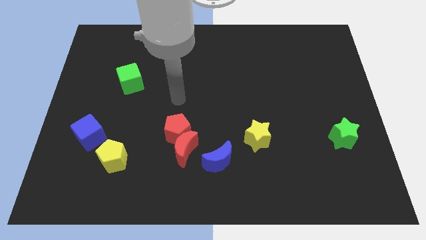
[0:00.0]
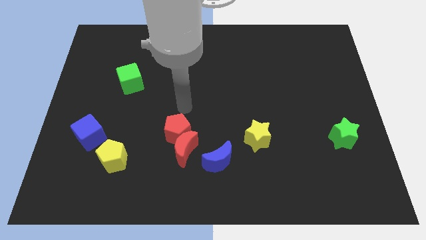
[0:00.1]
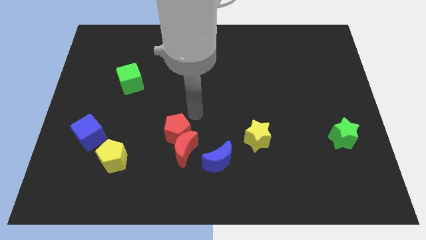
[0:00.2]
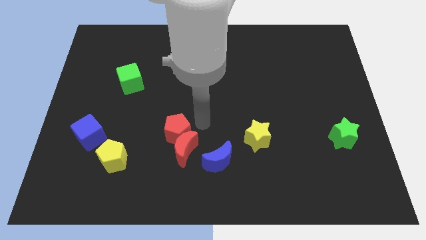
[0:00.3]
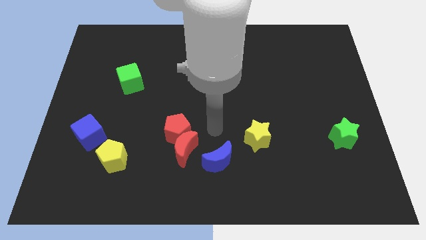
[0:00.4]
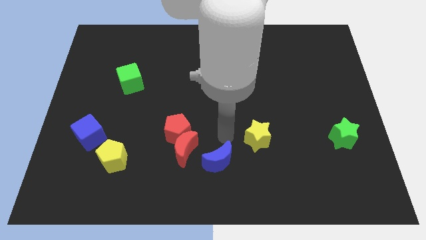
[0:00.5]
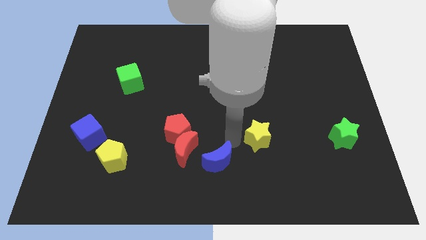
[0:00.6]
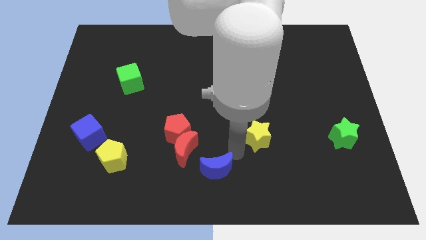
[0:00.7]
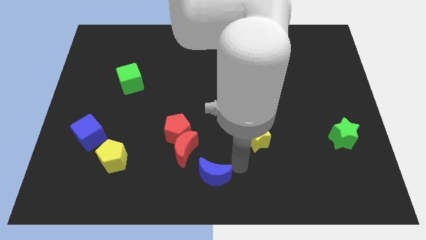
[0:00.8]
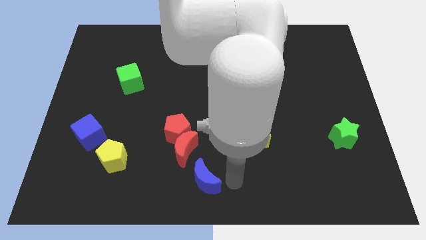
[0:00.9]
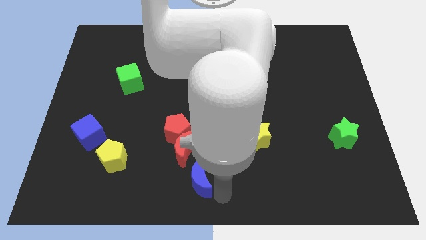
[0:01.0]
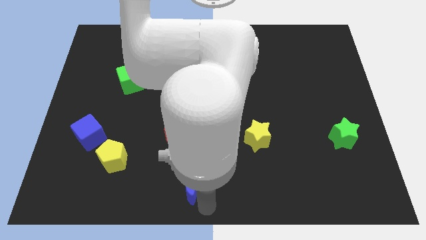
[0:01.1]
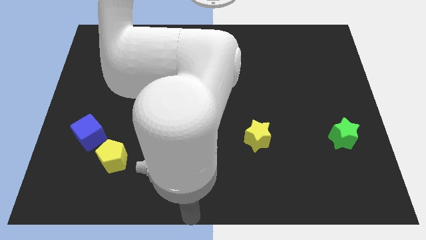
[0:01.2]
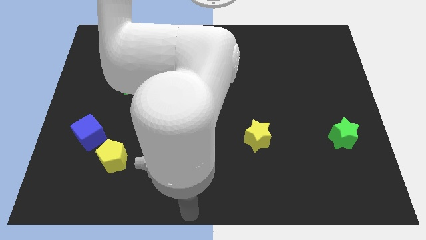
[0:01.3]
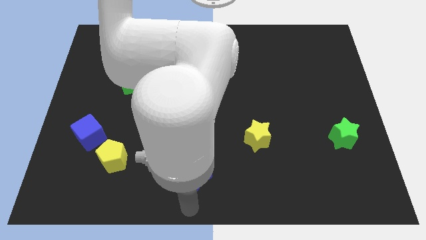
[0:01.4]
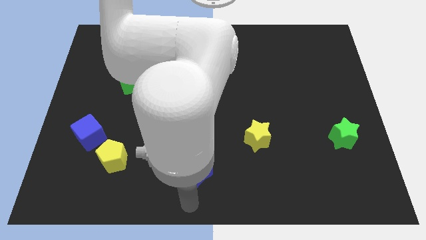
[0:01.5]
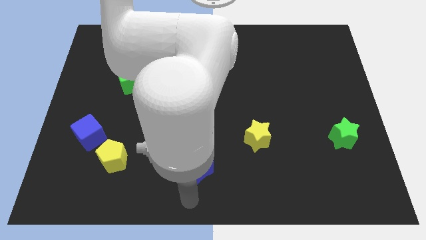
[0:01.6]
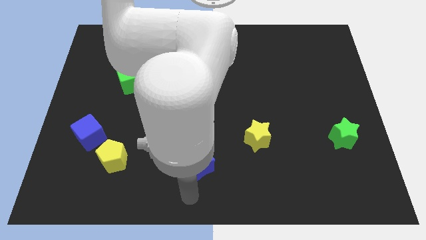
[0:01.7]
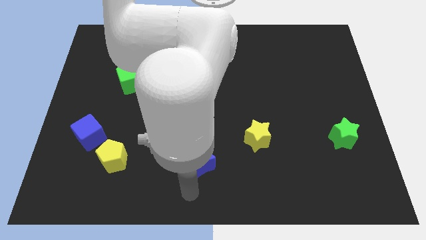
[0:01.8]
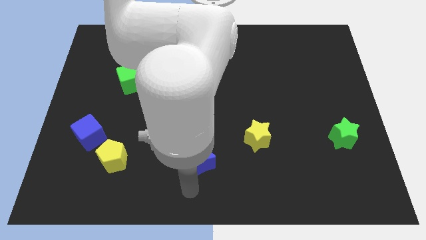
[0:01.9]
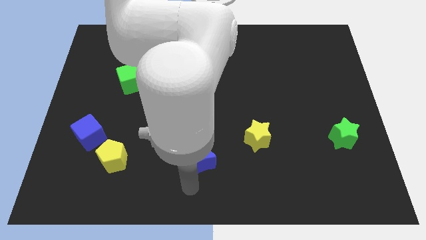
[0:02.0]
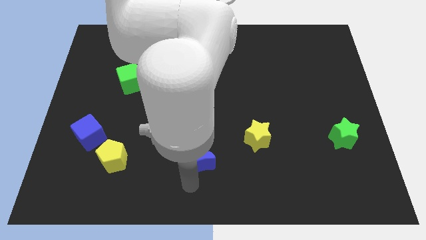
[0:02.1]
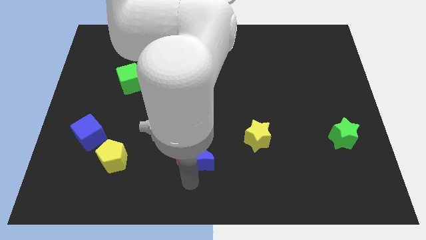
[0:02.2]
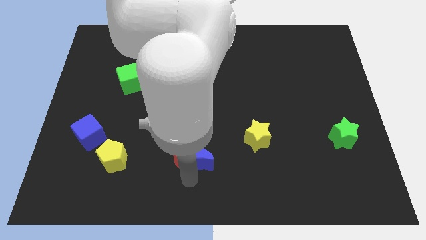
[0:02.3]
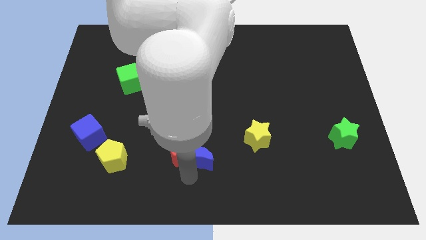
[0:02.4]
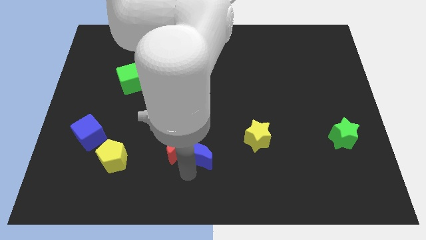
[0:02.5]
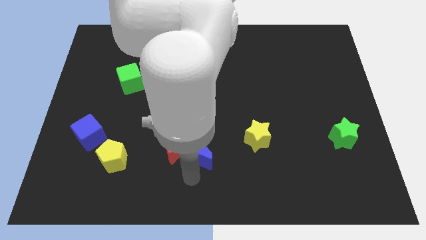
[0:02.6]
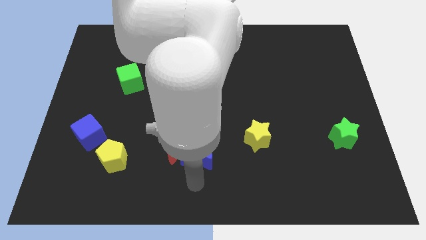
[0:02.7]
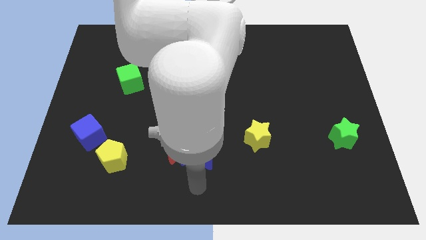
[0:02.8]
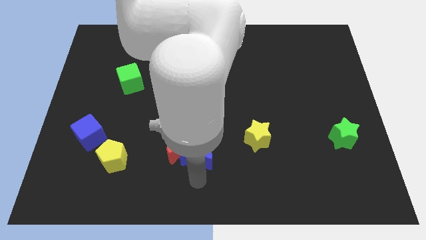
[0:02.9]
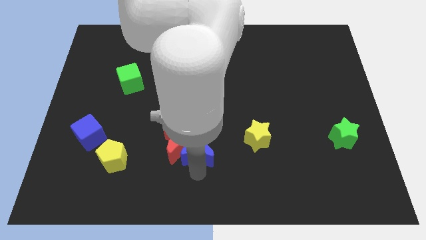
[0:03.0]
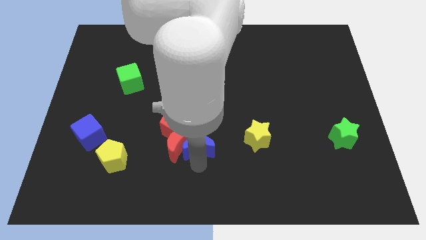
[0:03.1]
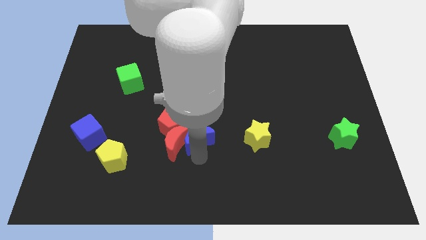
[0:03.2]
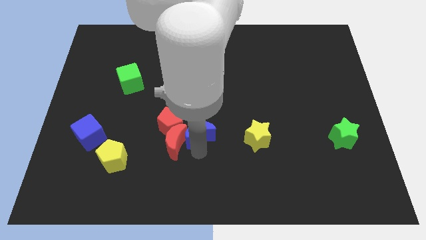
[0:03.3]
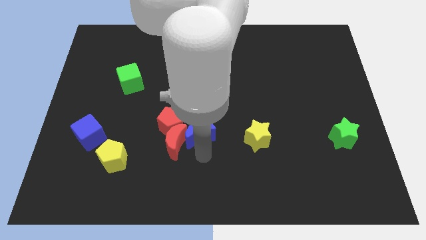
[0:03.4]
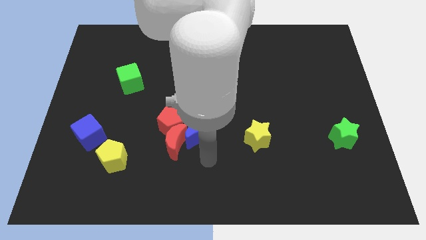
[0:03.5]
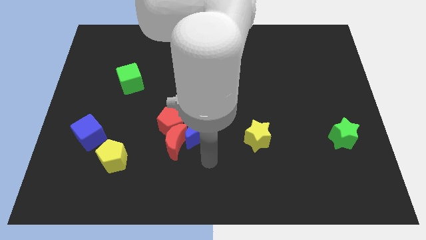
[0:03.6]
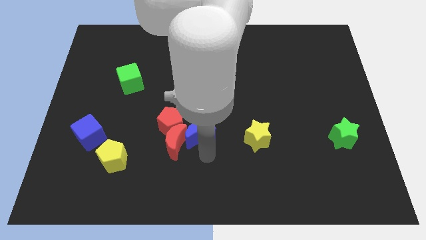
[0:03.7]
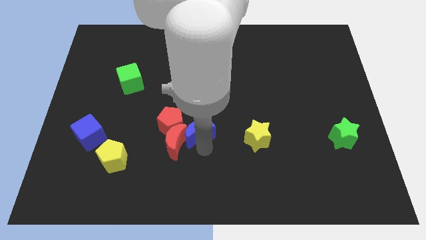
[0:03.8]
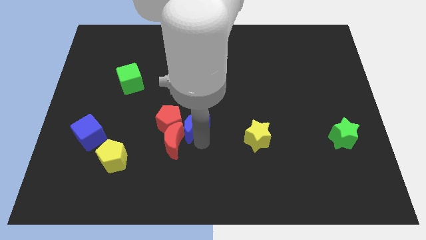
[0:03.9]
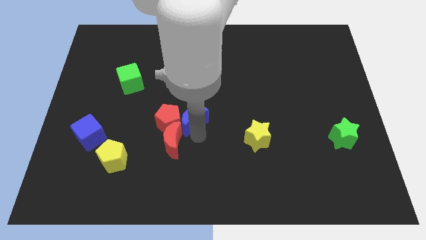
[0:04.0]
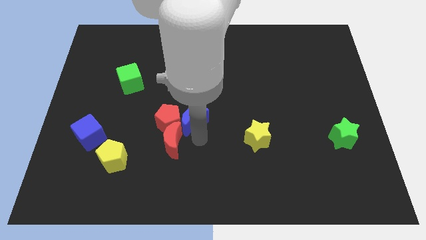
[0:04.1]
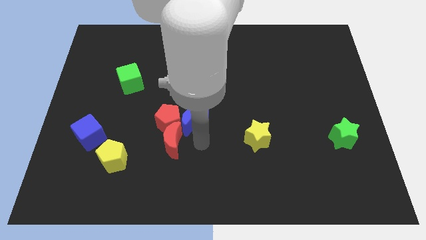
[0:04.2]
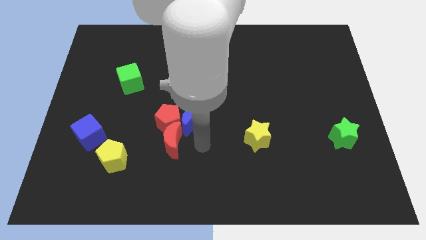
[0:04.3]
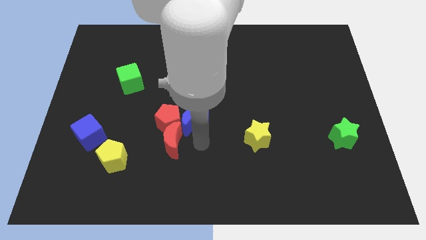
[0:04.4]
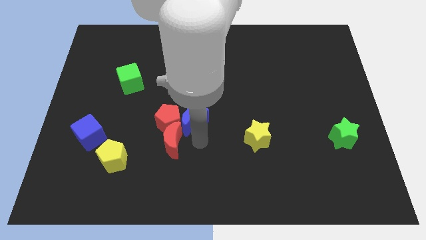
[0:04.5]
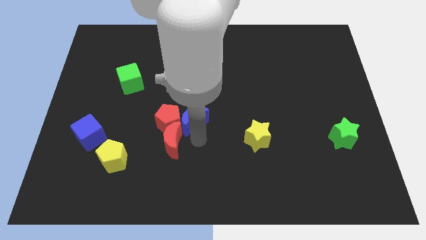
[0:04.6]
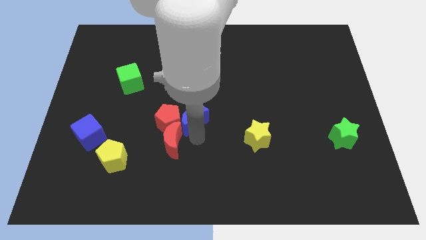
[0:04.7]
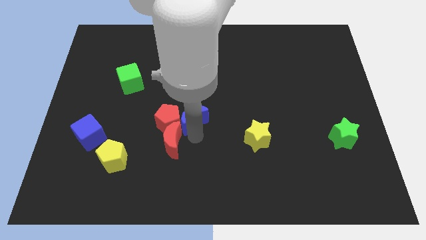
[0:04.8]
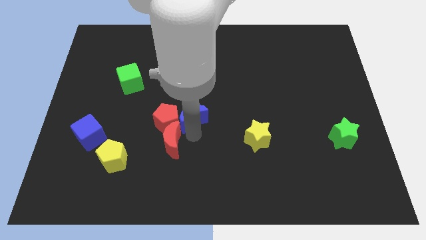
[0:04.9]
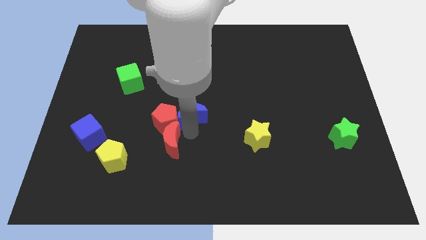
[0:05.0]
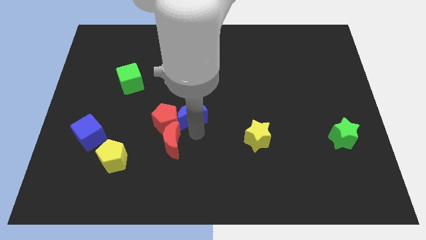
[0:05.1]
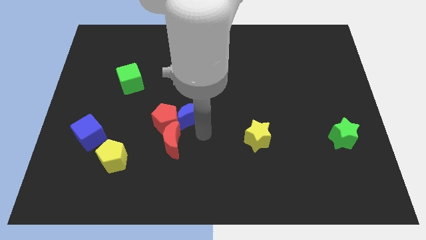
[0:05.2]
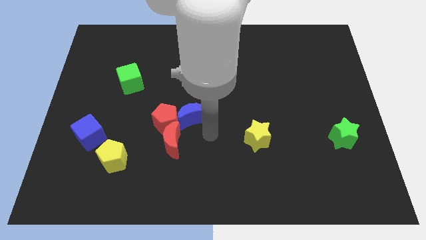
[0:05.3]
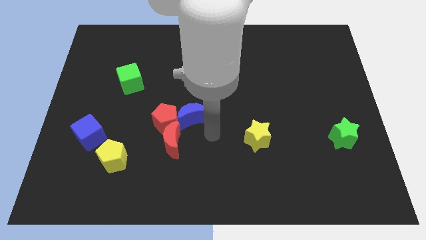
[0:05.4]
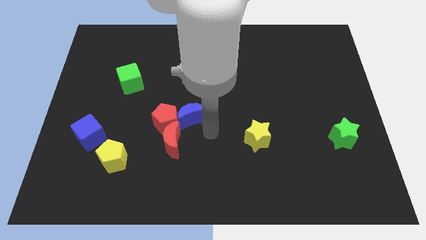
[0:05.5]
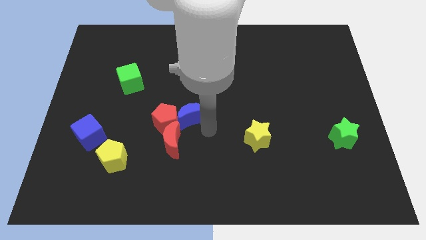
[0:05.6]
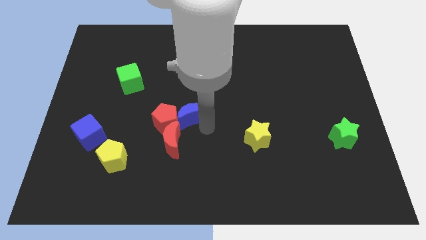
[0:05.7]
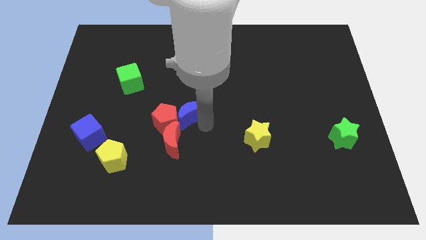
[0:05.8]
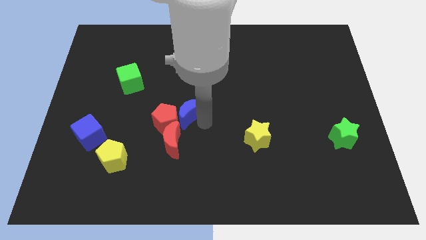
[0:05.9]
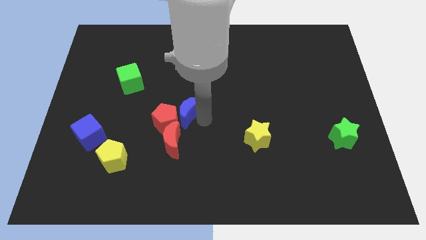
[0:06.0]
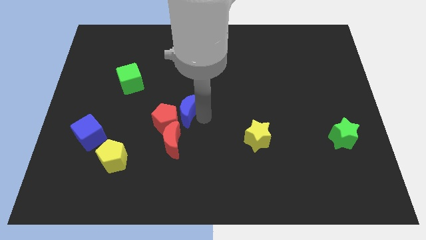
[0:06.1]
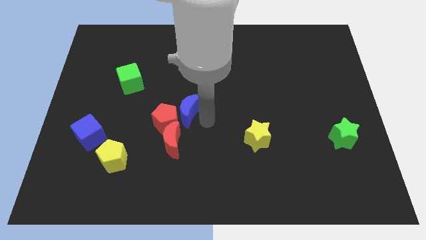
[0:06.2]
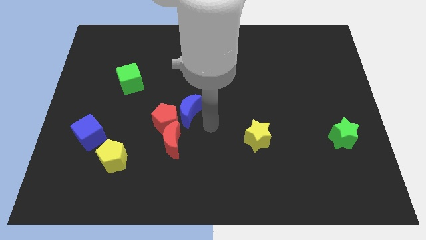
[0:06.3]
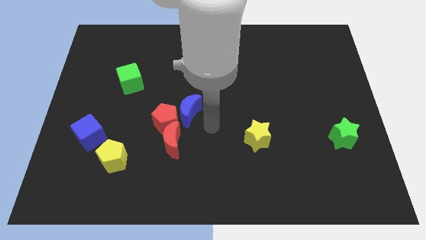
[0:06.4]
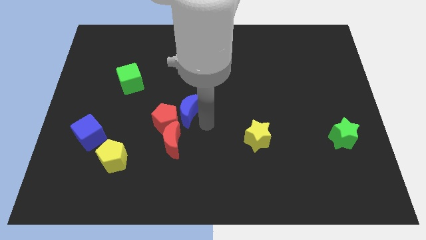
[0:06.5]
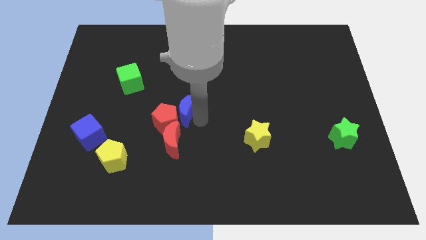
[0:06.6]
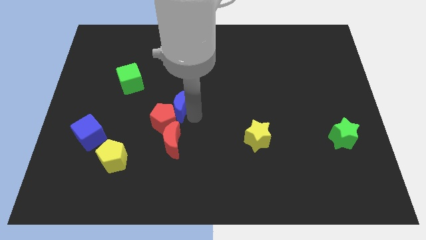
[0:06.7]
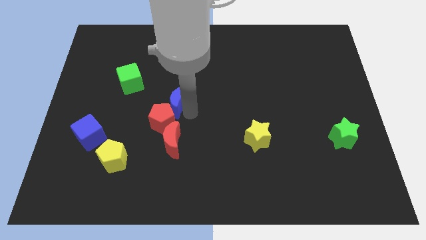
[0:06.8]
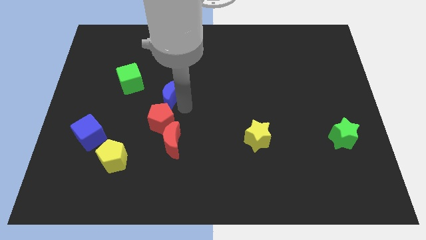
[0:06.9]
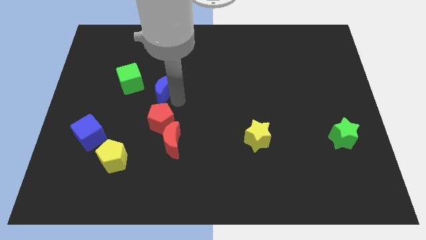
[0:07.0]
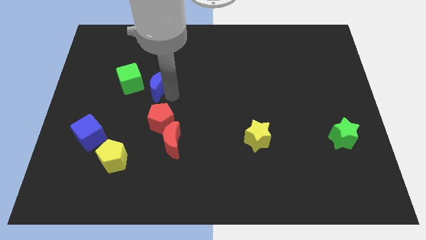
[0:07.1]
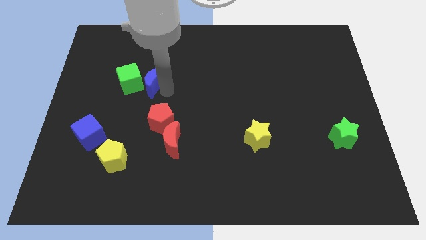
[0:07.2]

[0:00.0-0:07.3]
move the blue moon towards the green cube

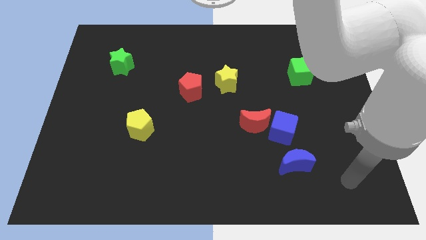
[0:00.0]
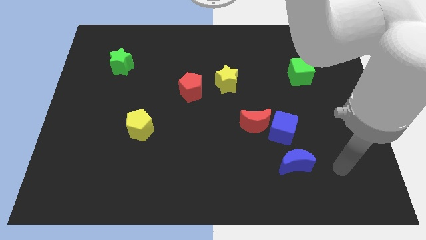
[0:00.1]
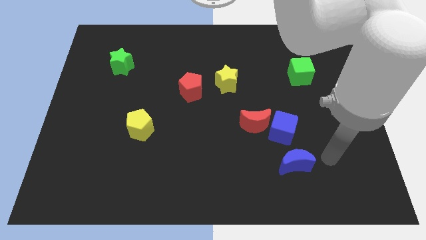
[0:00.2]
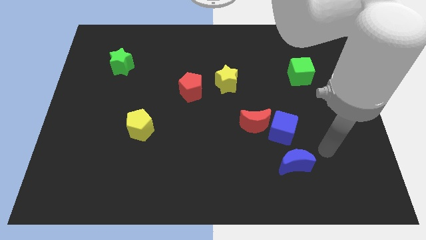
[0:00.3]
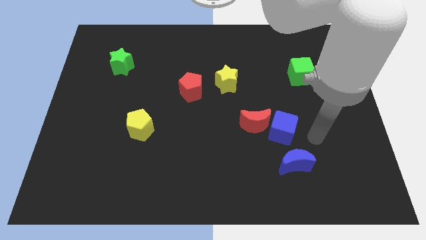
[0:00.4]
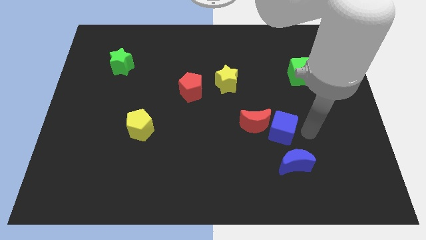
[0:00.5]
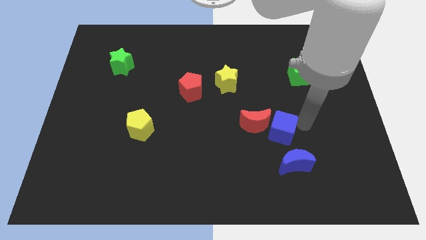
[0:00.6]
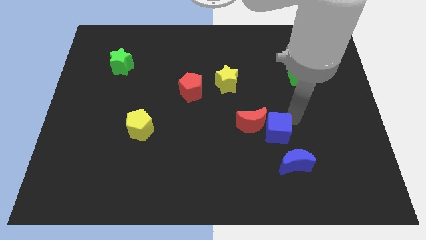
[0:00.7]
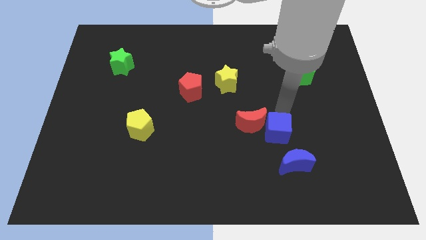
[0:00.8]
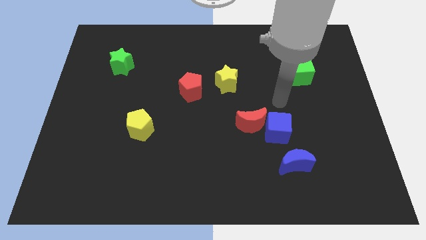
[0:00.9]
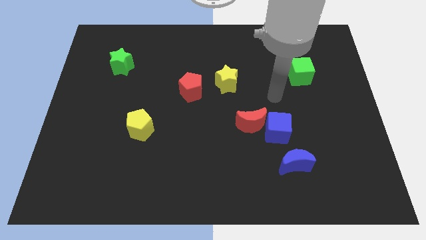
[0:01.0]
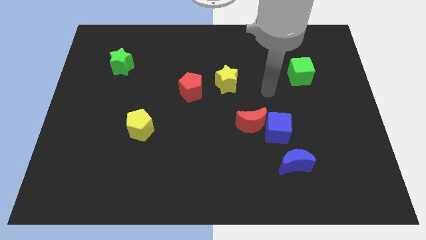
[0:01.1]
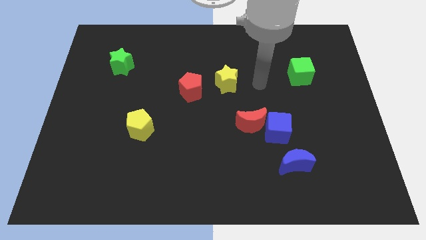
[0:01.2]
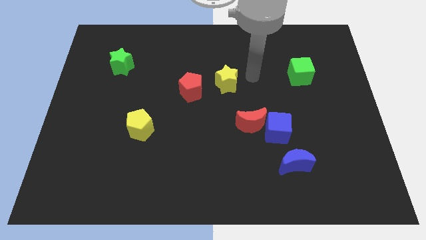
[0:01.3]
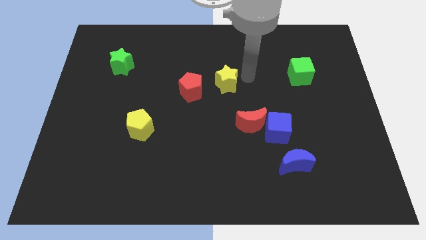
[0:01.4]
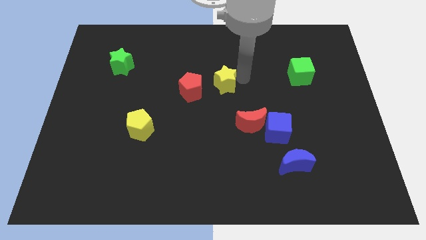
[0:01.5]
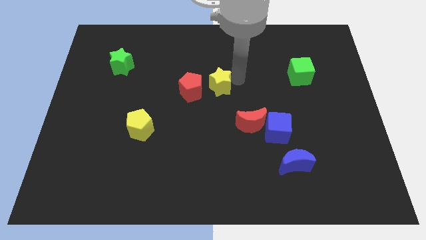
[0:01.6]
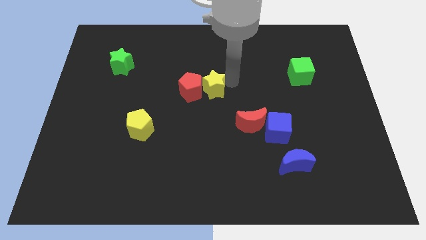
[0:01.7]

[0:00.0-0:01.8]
slide the yellow star next to the red pentagon
